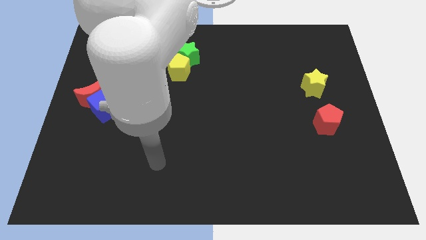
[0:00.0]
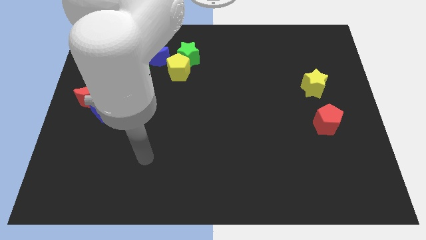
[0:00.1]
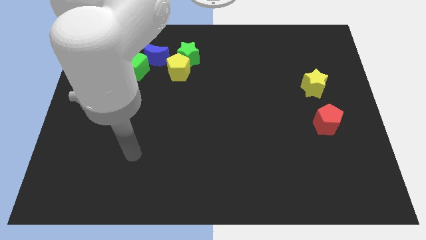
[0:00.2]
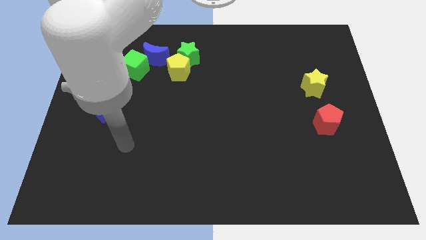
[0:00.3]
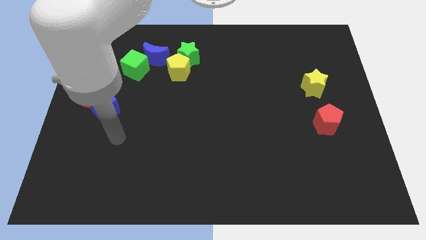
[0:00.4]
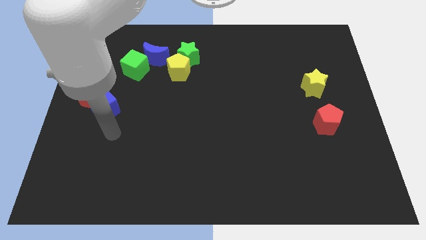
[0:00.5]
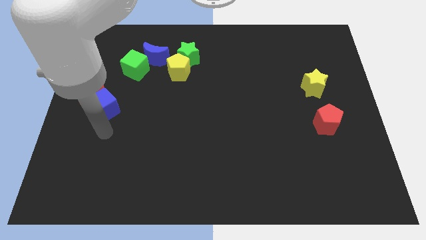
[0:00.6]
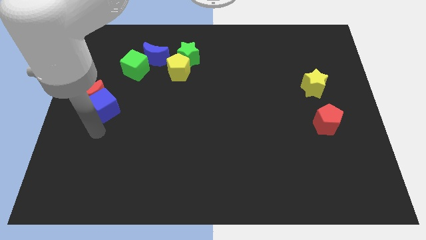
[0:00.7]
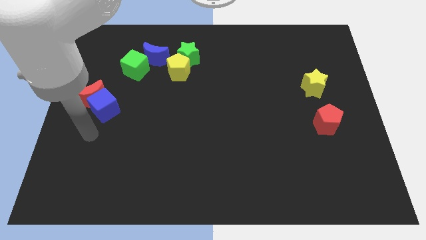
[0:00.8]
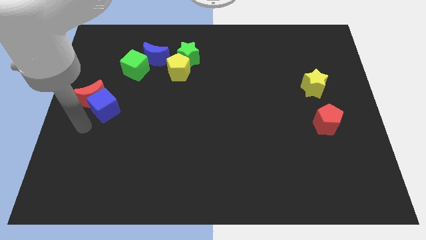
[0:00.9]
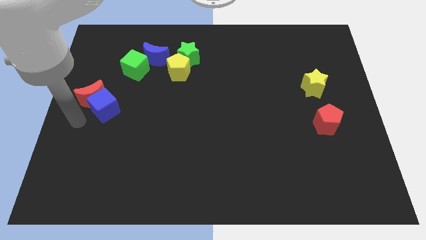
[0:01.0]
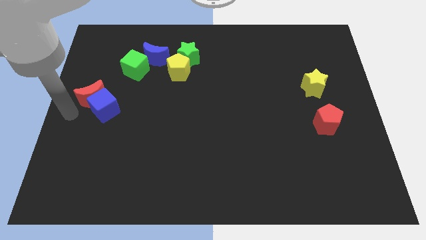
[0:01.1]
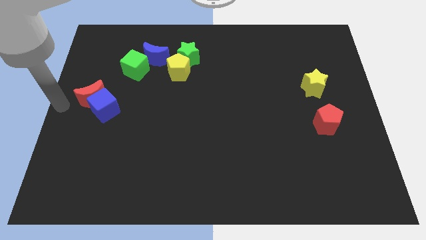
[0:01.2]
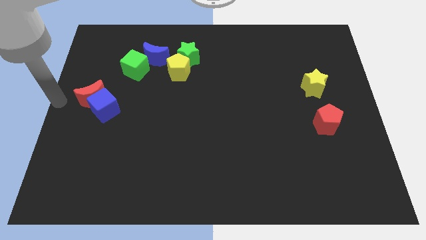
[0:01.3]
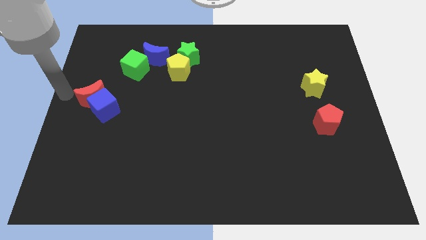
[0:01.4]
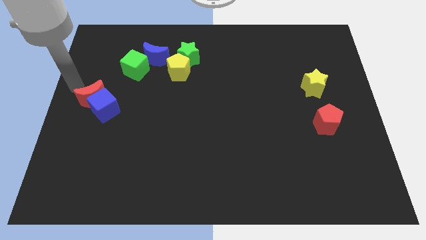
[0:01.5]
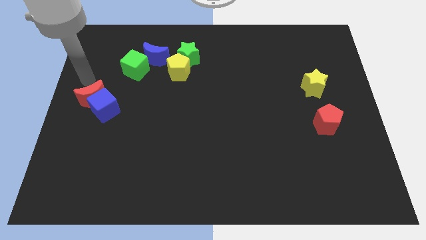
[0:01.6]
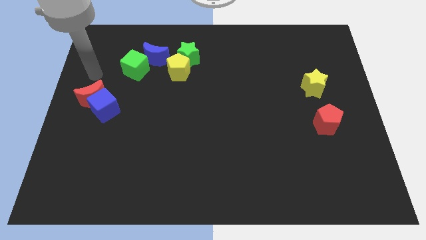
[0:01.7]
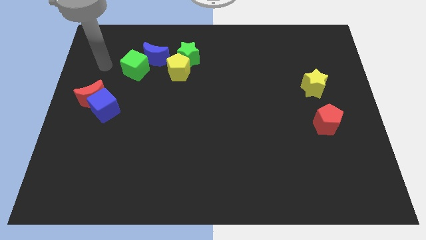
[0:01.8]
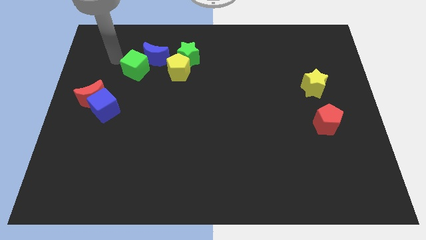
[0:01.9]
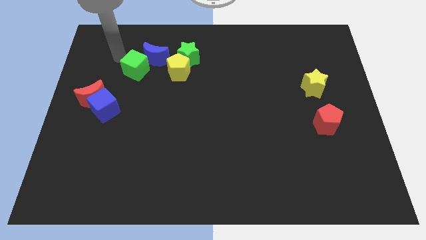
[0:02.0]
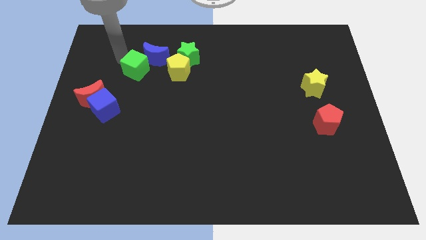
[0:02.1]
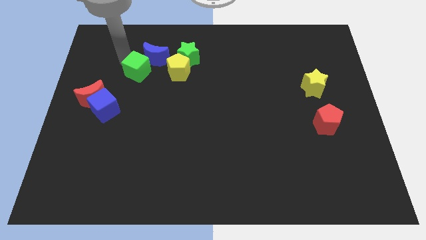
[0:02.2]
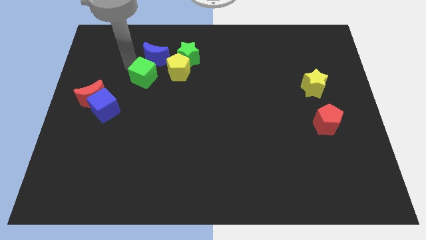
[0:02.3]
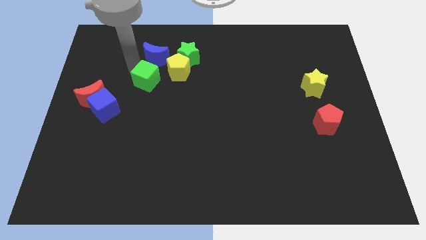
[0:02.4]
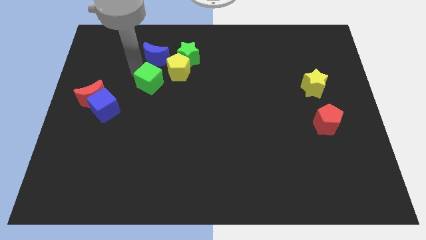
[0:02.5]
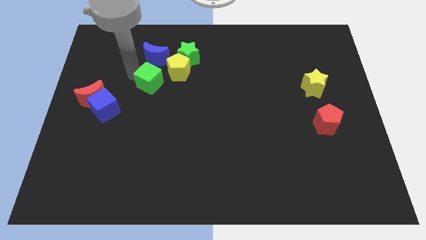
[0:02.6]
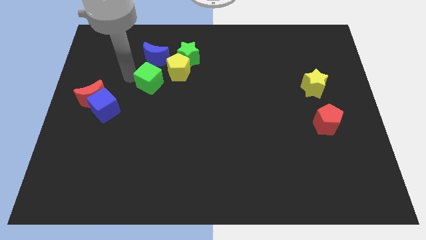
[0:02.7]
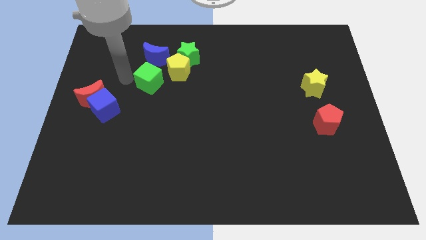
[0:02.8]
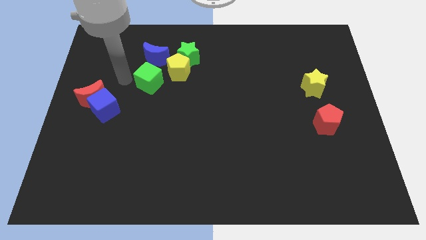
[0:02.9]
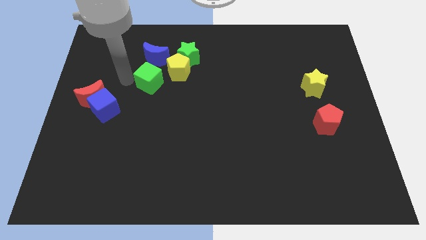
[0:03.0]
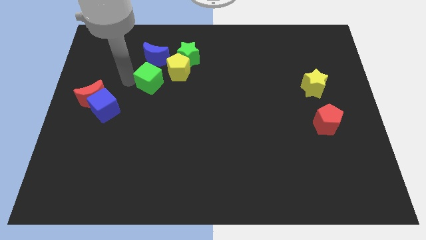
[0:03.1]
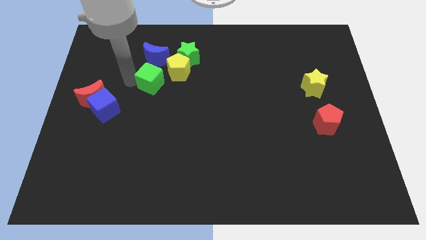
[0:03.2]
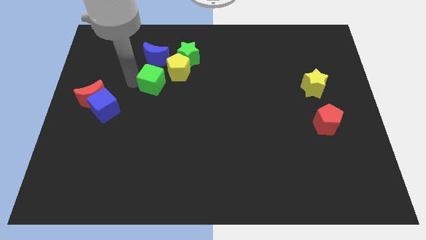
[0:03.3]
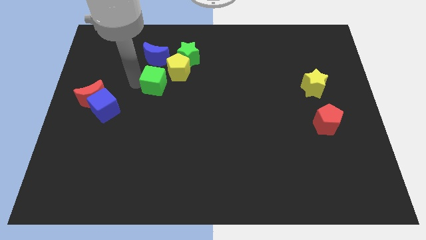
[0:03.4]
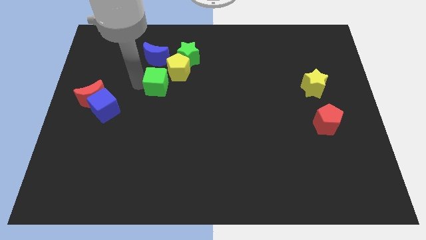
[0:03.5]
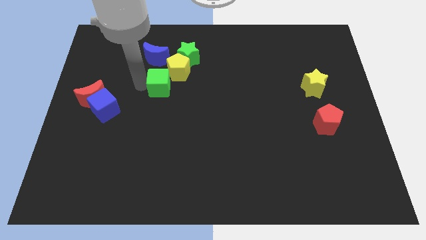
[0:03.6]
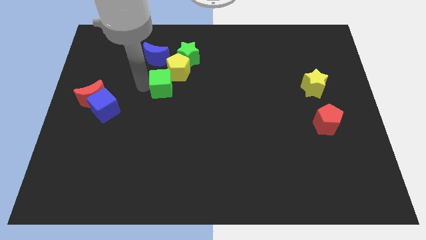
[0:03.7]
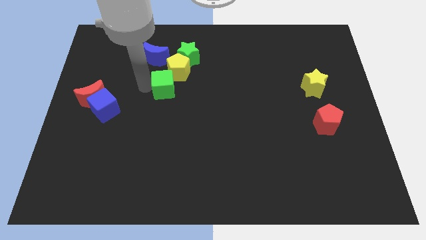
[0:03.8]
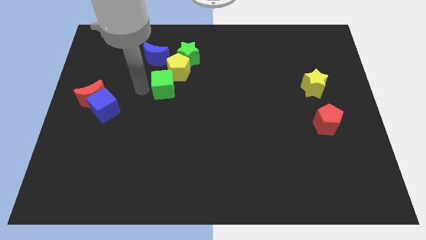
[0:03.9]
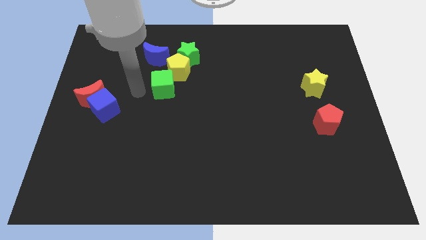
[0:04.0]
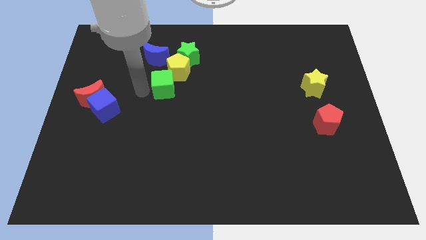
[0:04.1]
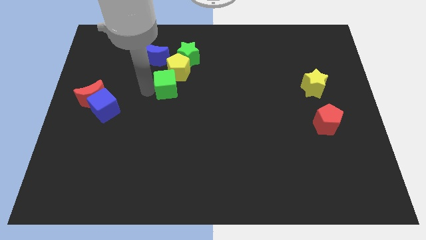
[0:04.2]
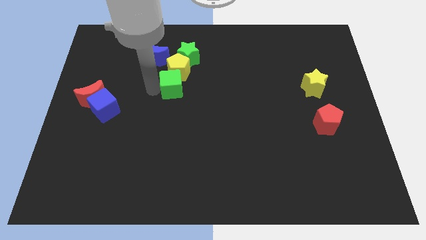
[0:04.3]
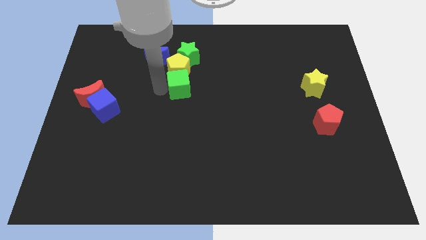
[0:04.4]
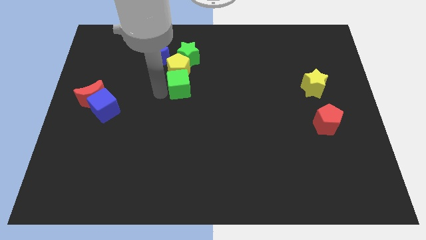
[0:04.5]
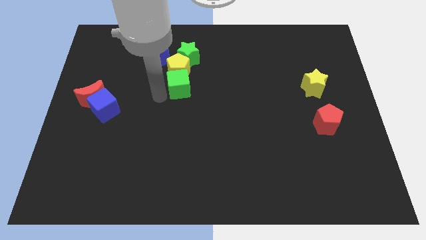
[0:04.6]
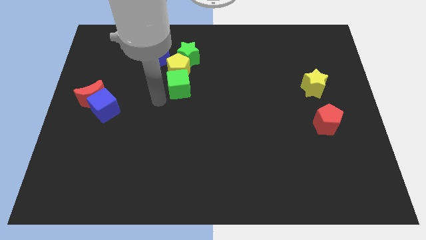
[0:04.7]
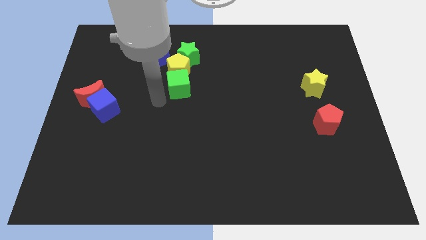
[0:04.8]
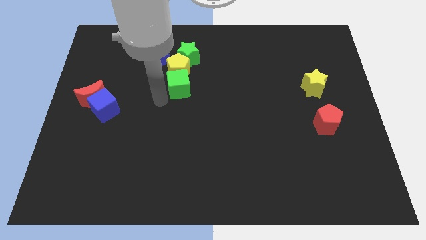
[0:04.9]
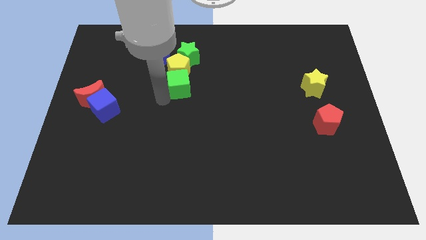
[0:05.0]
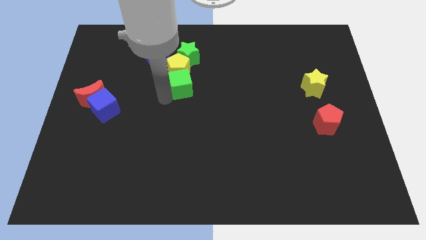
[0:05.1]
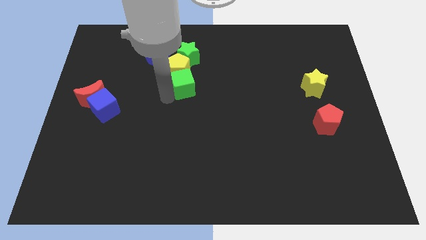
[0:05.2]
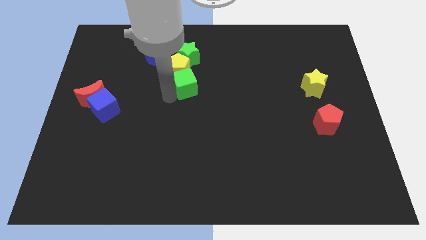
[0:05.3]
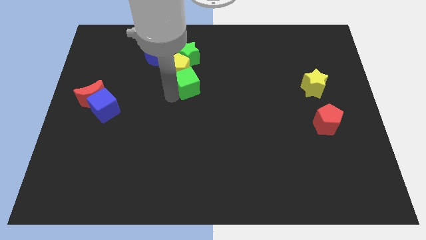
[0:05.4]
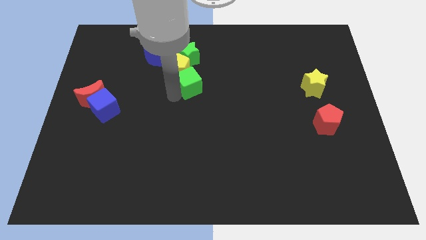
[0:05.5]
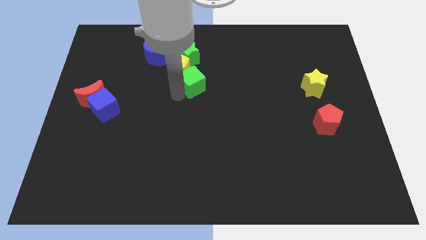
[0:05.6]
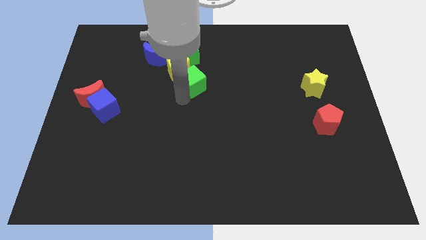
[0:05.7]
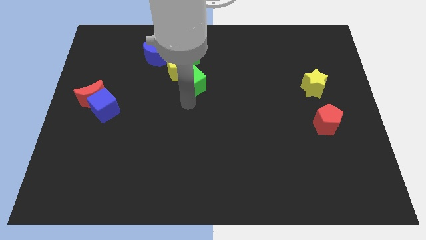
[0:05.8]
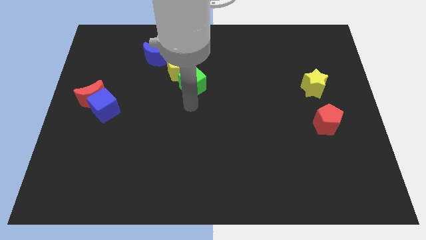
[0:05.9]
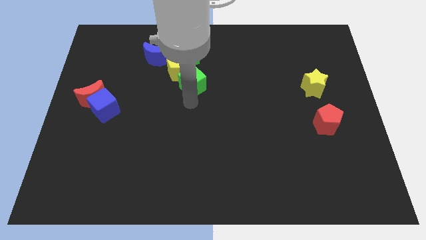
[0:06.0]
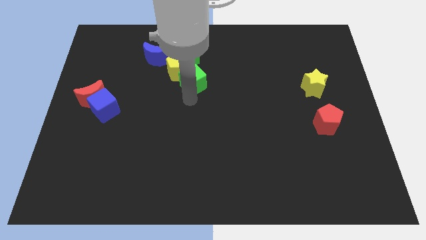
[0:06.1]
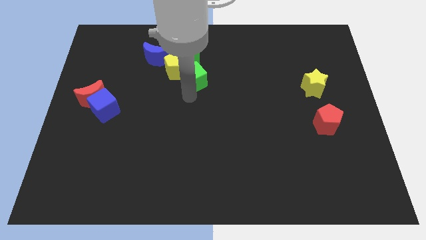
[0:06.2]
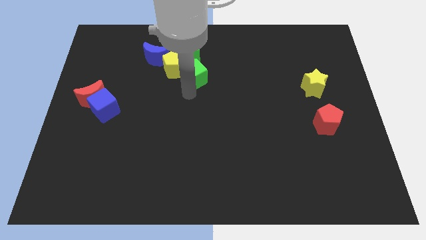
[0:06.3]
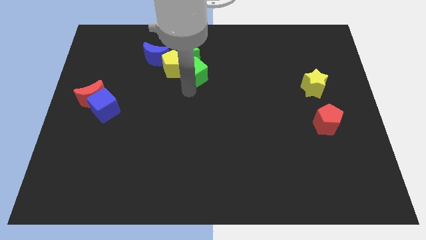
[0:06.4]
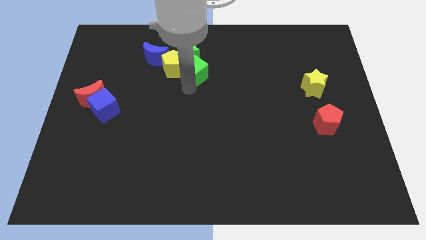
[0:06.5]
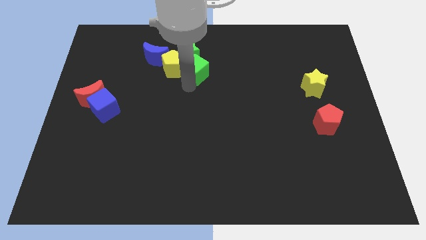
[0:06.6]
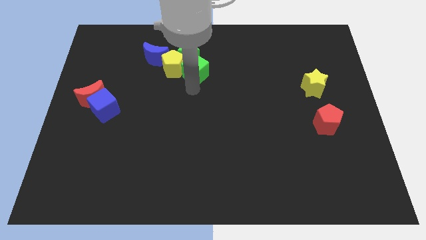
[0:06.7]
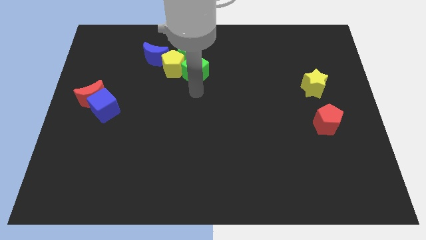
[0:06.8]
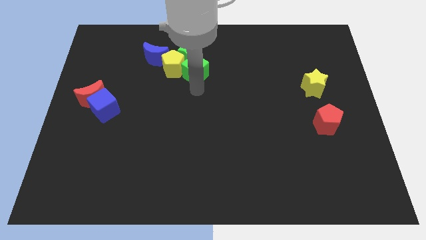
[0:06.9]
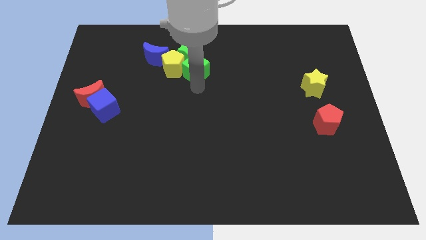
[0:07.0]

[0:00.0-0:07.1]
put the green cube to the right side of the blue moon
